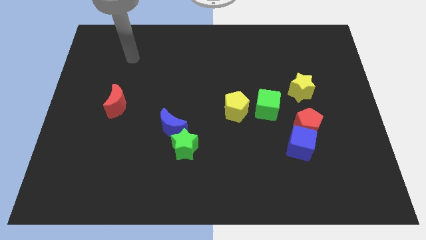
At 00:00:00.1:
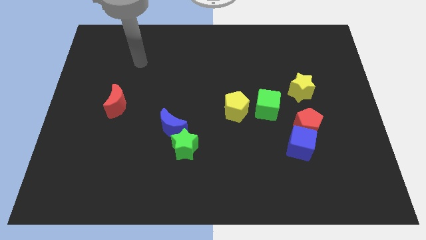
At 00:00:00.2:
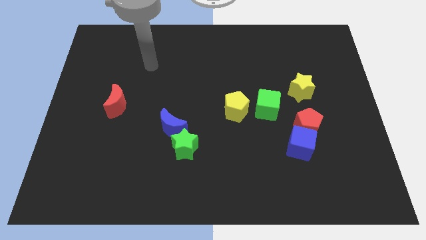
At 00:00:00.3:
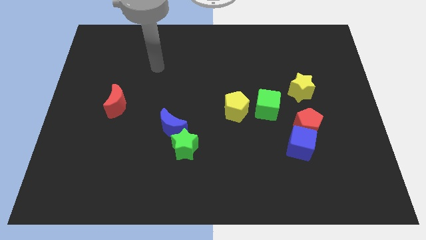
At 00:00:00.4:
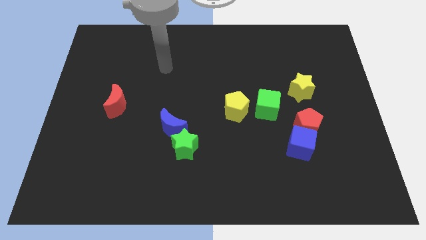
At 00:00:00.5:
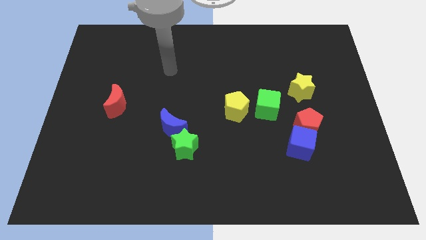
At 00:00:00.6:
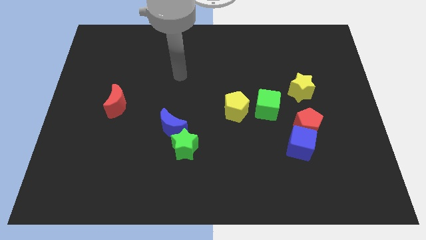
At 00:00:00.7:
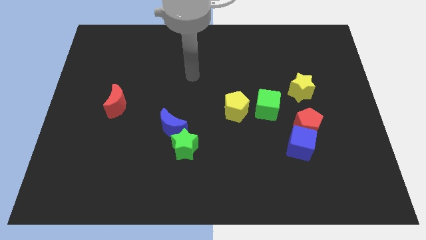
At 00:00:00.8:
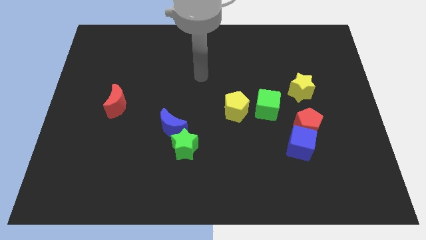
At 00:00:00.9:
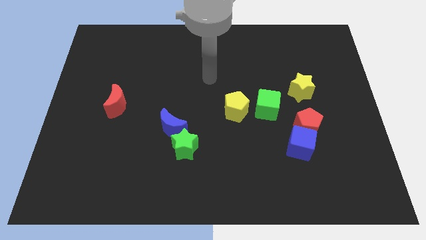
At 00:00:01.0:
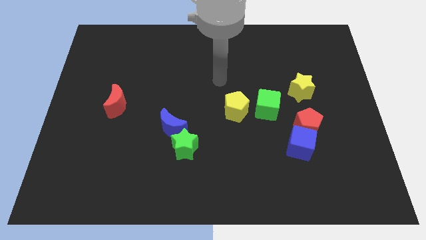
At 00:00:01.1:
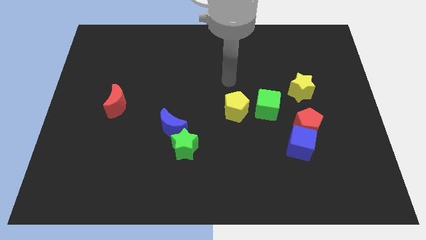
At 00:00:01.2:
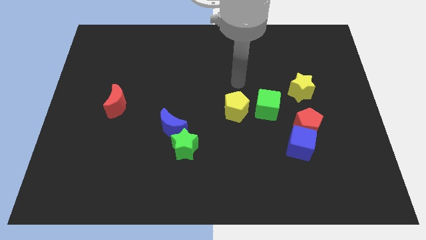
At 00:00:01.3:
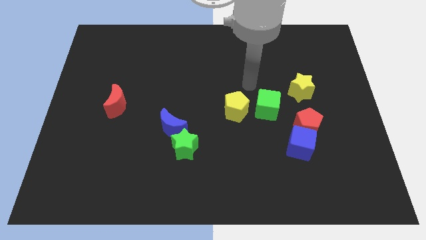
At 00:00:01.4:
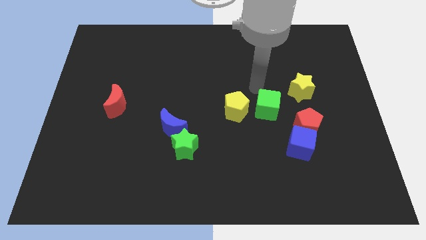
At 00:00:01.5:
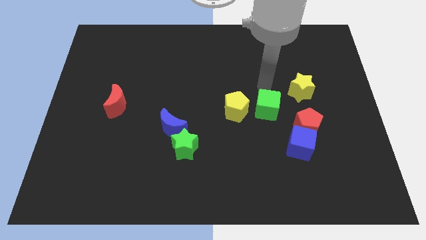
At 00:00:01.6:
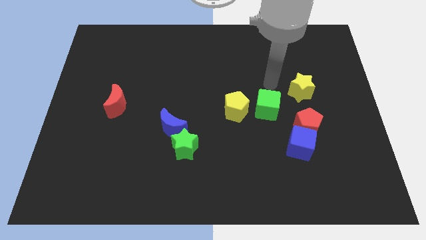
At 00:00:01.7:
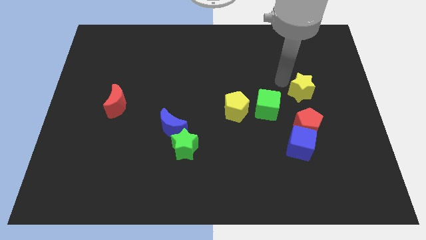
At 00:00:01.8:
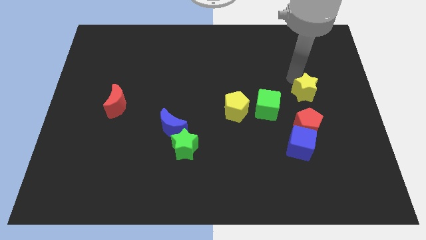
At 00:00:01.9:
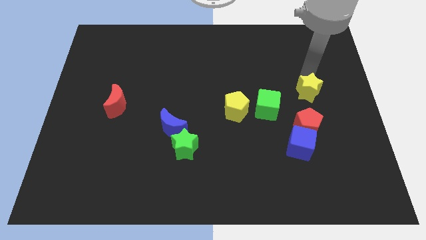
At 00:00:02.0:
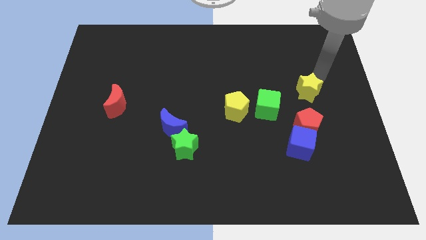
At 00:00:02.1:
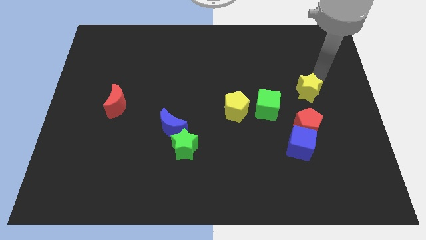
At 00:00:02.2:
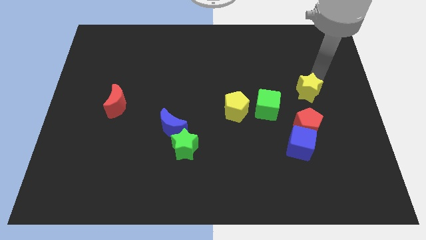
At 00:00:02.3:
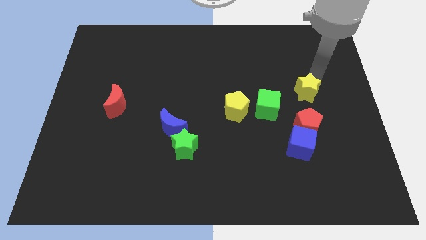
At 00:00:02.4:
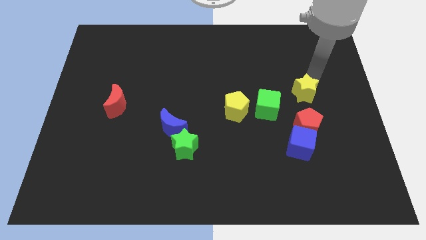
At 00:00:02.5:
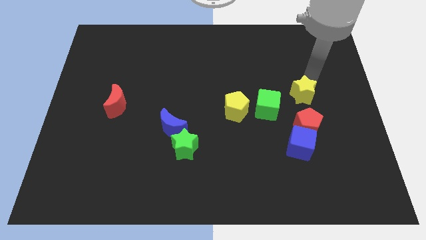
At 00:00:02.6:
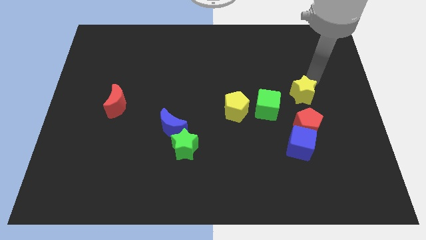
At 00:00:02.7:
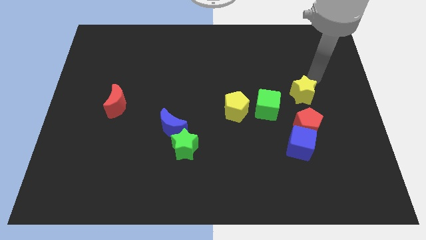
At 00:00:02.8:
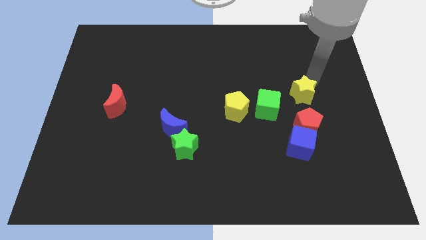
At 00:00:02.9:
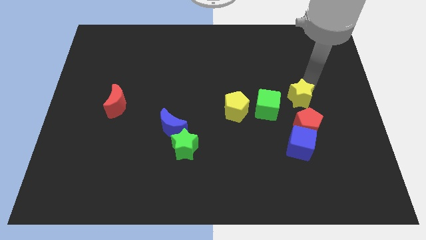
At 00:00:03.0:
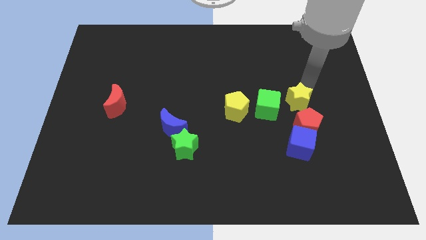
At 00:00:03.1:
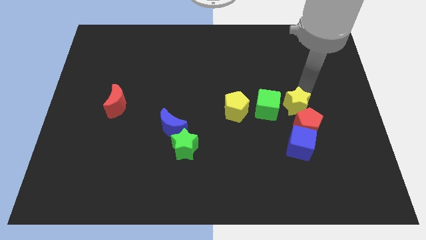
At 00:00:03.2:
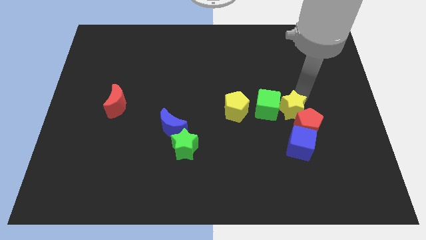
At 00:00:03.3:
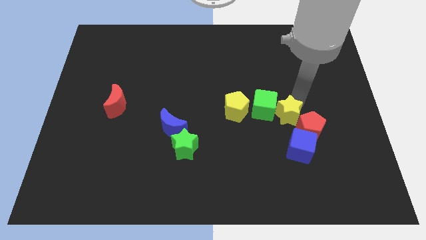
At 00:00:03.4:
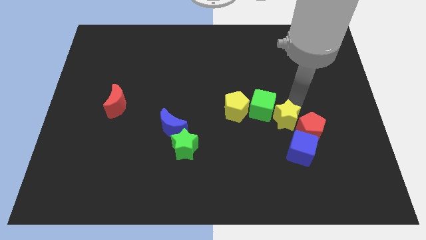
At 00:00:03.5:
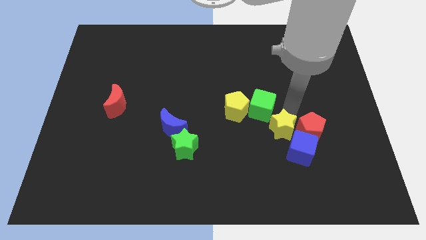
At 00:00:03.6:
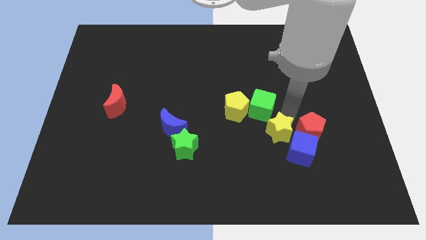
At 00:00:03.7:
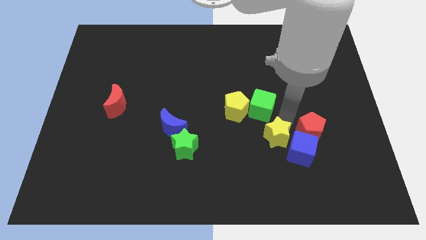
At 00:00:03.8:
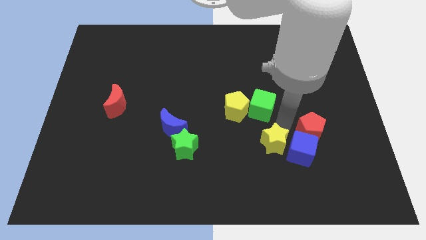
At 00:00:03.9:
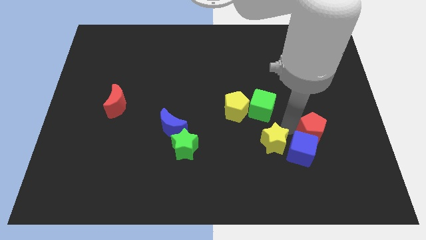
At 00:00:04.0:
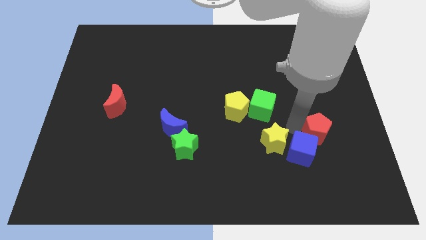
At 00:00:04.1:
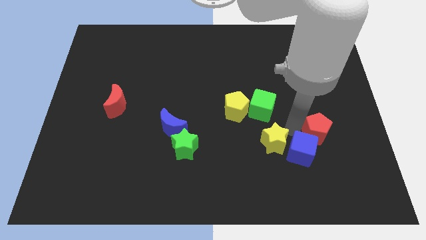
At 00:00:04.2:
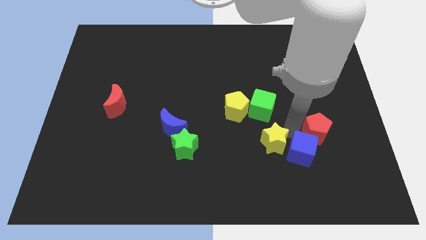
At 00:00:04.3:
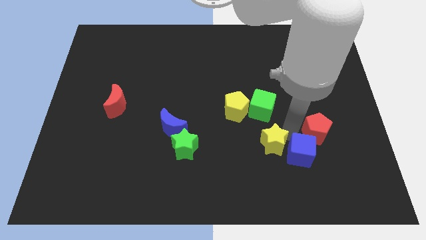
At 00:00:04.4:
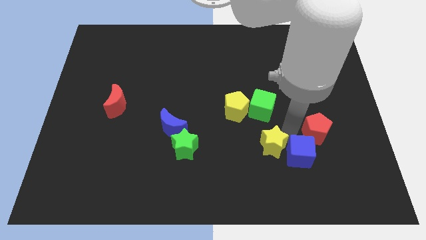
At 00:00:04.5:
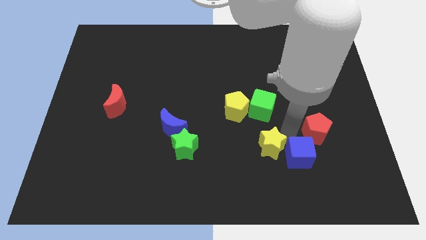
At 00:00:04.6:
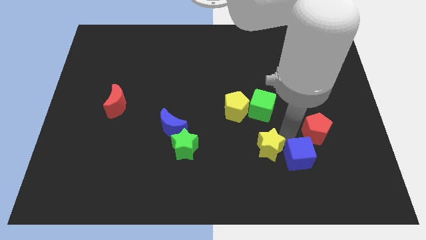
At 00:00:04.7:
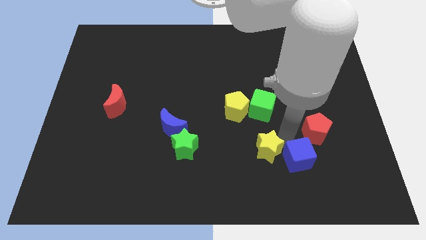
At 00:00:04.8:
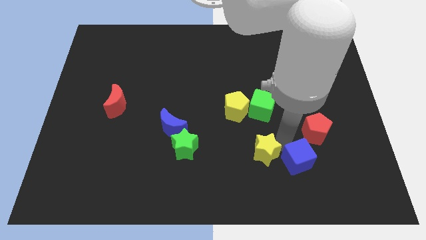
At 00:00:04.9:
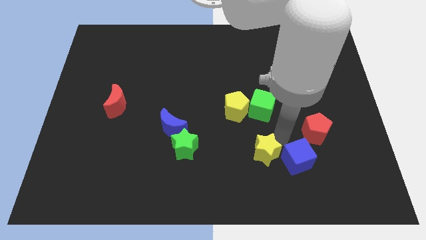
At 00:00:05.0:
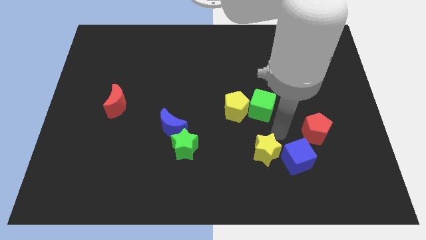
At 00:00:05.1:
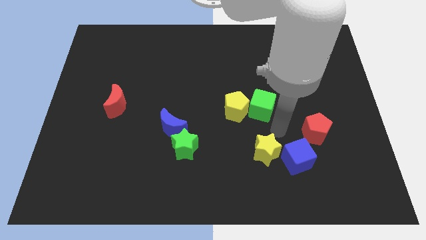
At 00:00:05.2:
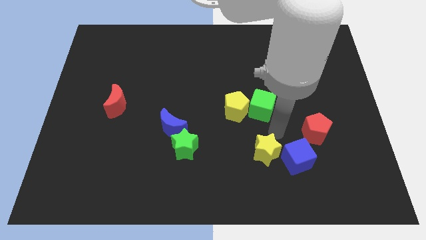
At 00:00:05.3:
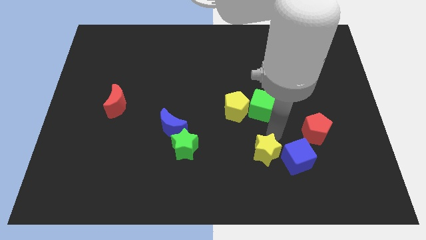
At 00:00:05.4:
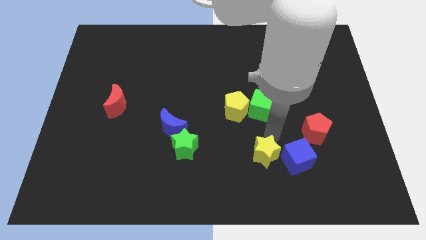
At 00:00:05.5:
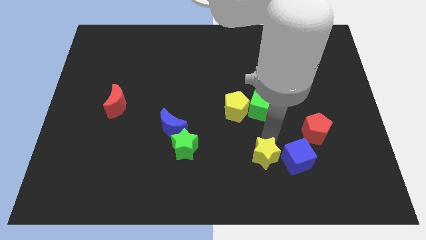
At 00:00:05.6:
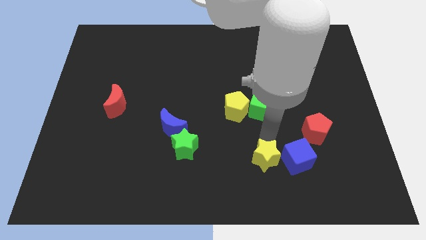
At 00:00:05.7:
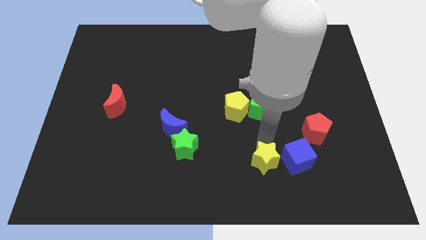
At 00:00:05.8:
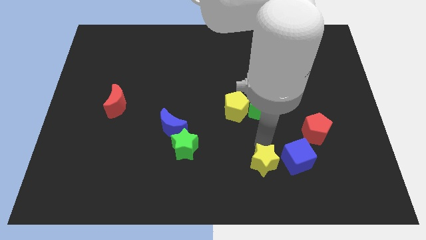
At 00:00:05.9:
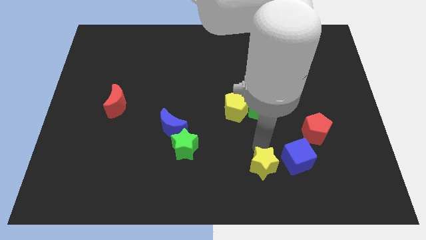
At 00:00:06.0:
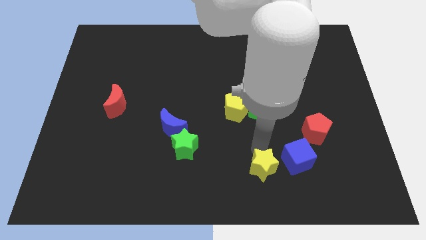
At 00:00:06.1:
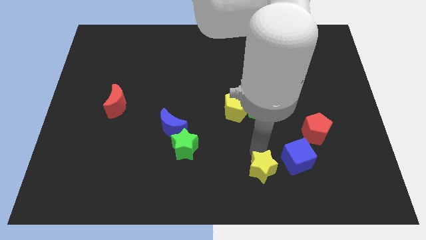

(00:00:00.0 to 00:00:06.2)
slide the yellow star to the bottom
